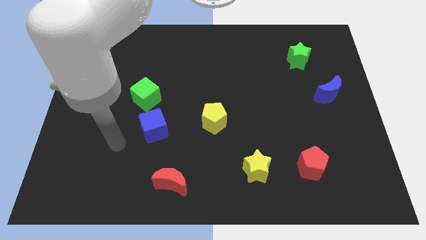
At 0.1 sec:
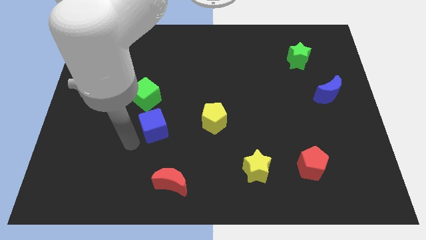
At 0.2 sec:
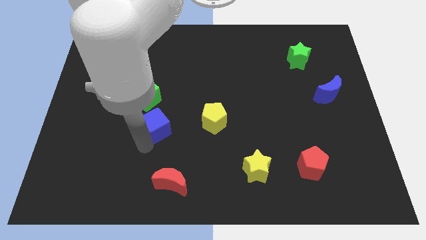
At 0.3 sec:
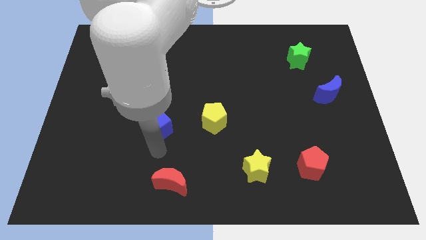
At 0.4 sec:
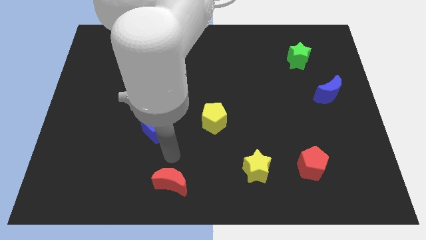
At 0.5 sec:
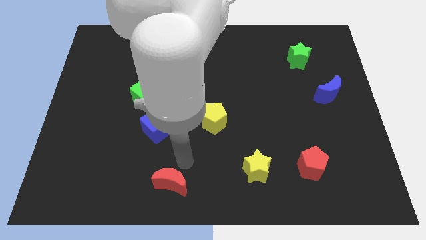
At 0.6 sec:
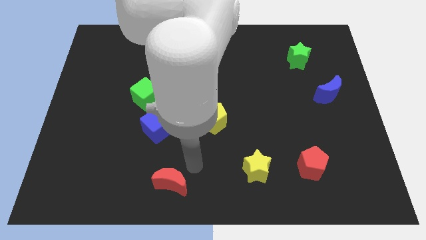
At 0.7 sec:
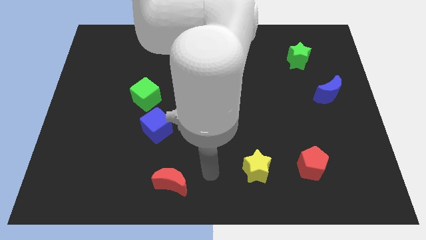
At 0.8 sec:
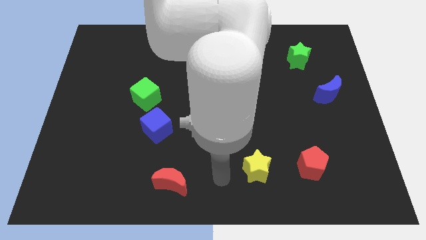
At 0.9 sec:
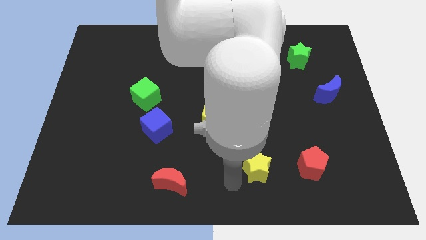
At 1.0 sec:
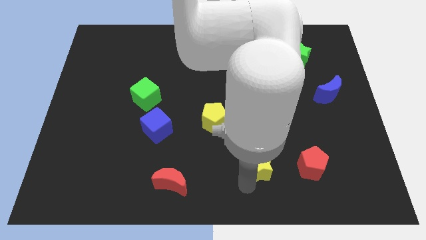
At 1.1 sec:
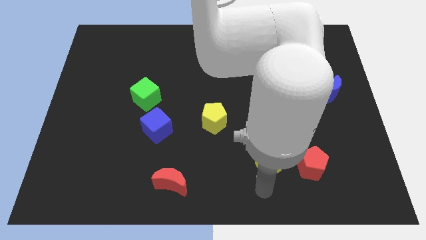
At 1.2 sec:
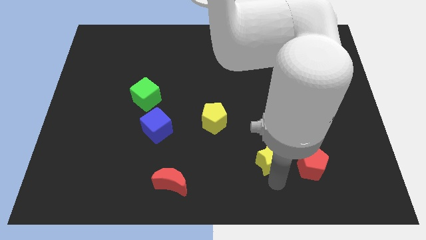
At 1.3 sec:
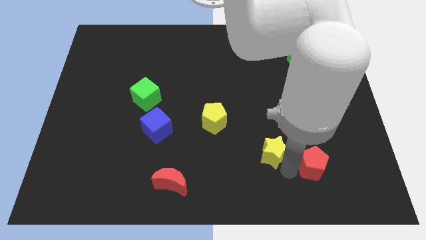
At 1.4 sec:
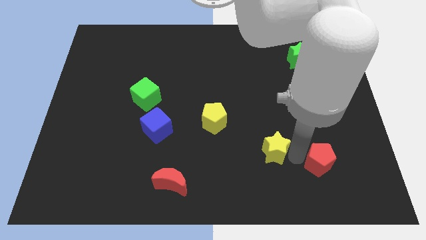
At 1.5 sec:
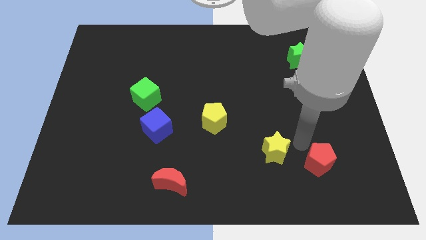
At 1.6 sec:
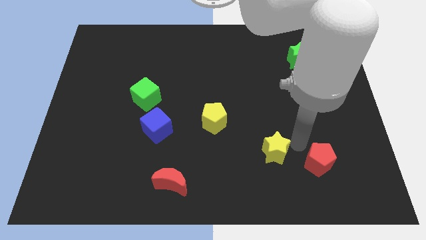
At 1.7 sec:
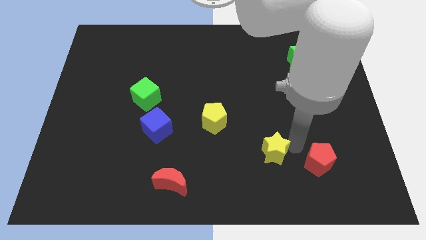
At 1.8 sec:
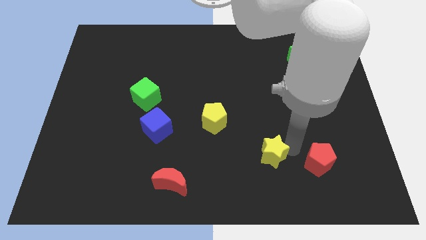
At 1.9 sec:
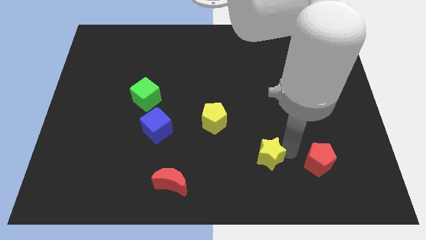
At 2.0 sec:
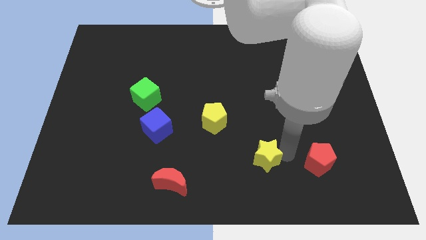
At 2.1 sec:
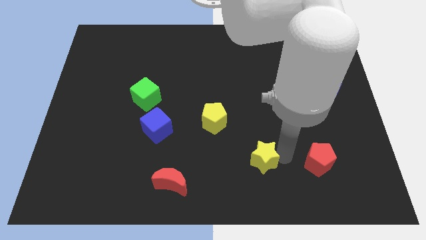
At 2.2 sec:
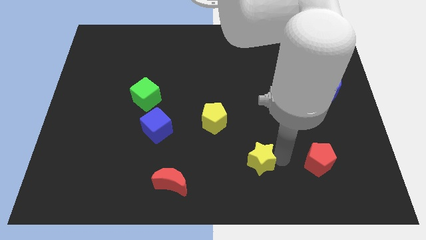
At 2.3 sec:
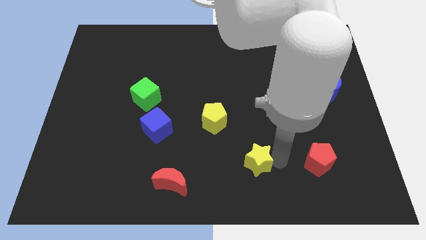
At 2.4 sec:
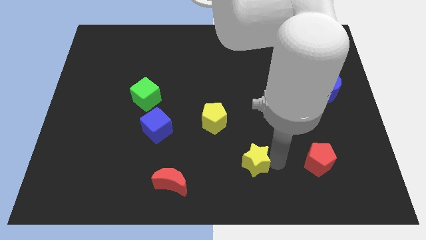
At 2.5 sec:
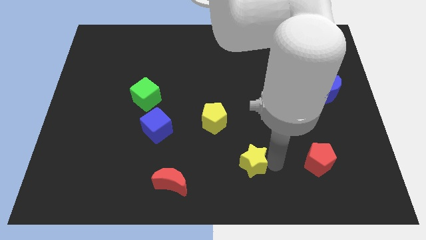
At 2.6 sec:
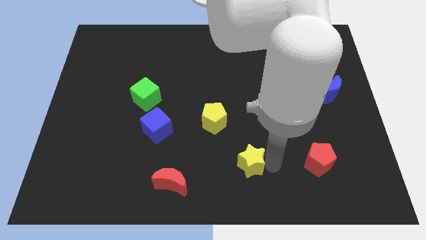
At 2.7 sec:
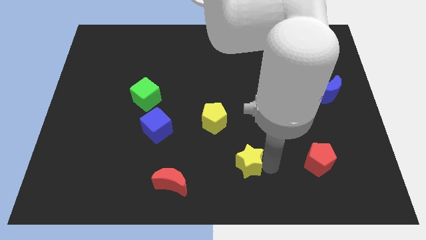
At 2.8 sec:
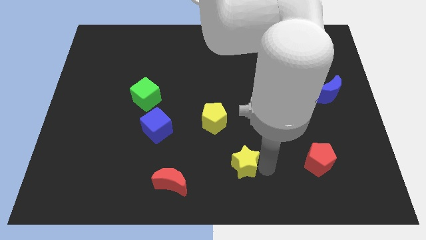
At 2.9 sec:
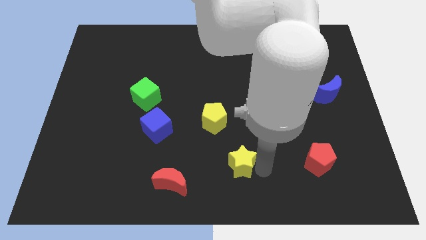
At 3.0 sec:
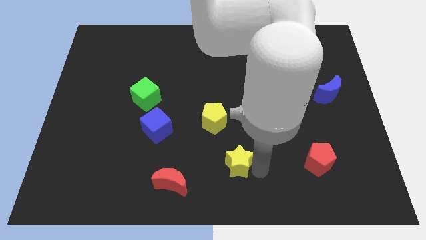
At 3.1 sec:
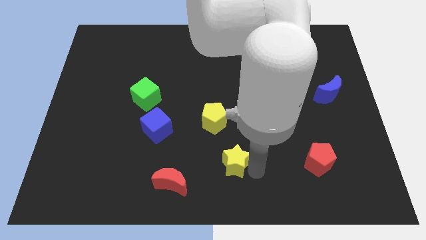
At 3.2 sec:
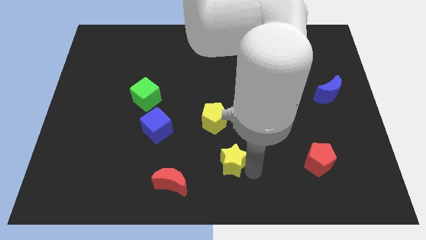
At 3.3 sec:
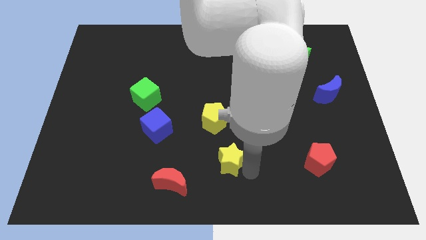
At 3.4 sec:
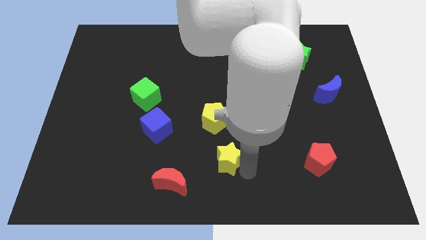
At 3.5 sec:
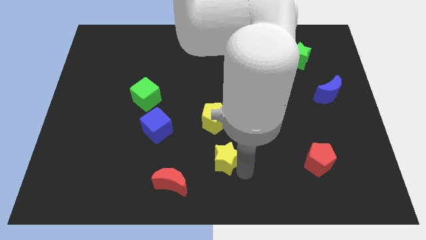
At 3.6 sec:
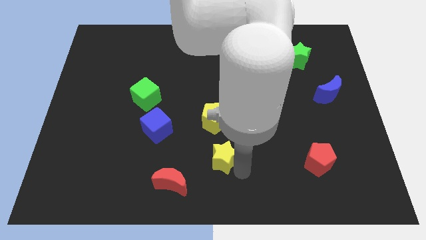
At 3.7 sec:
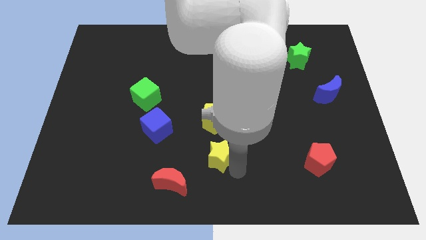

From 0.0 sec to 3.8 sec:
slide the yellow star upwards and to the left somewhat

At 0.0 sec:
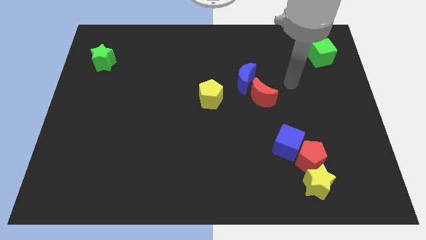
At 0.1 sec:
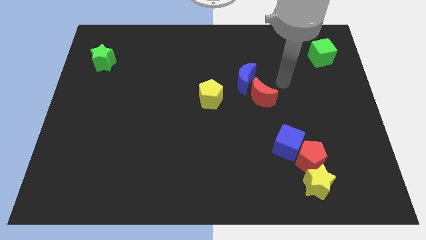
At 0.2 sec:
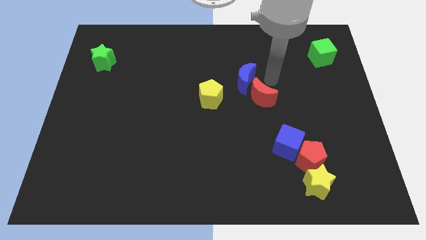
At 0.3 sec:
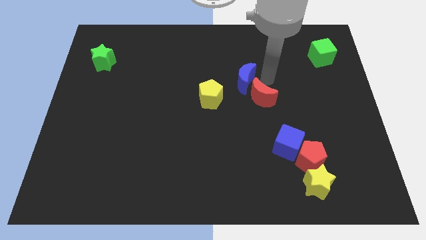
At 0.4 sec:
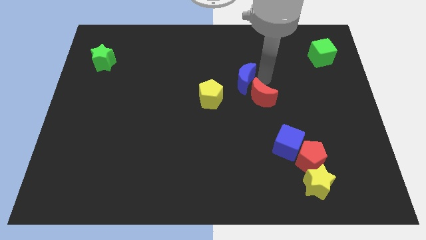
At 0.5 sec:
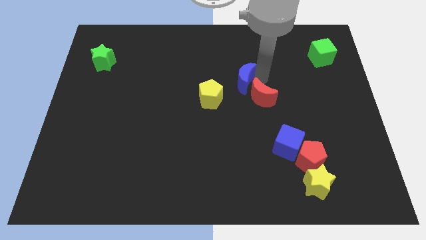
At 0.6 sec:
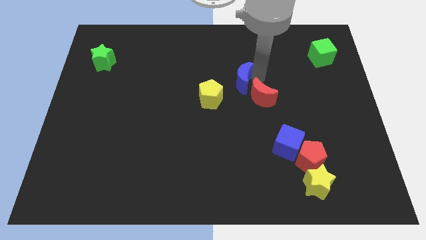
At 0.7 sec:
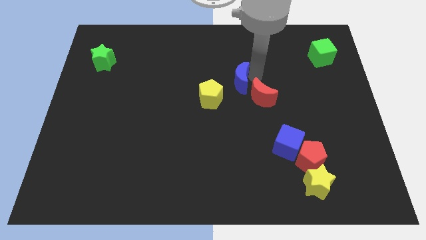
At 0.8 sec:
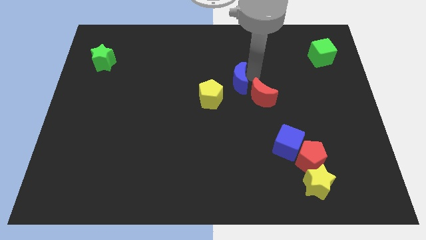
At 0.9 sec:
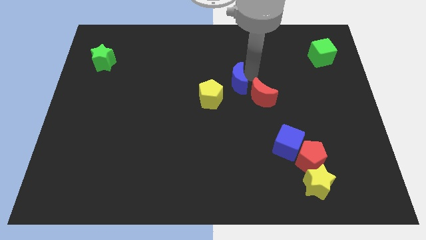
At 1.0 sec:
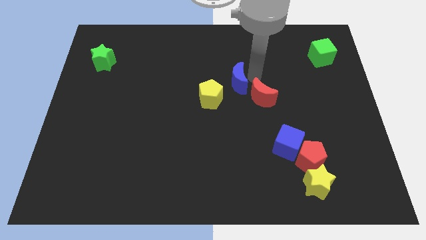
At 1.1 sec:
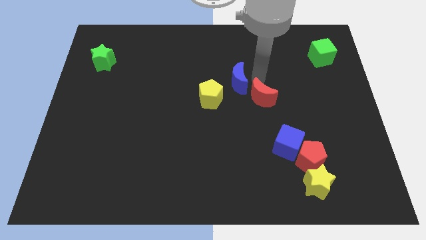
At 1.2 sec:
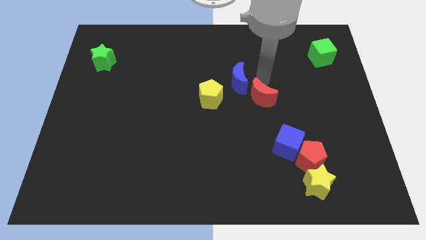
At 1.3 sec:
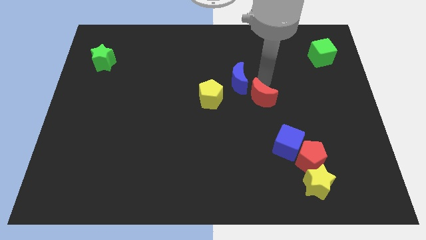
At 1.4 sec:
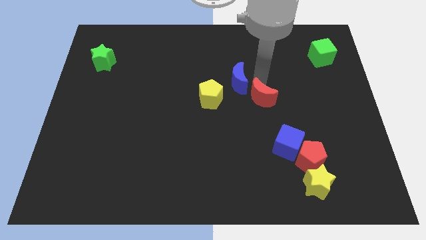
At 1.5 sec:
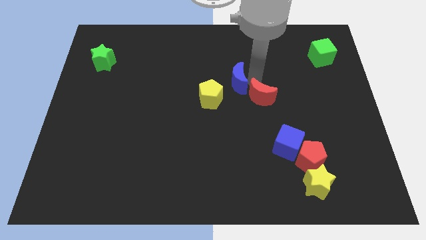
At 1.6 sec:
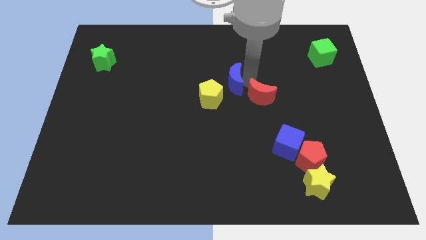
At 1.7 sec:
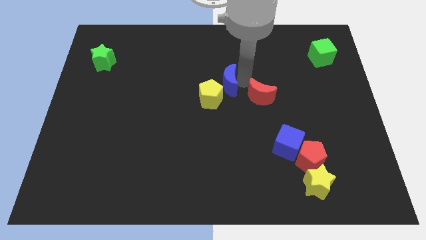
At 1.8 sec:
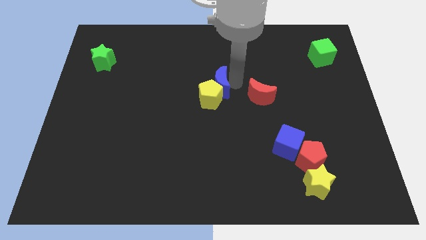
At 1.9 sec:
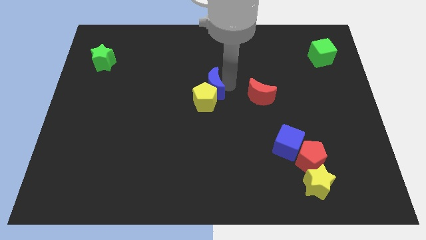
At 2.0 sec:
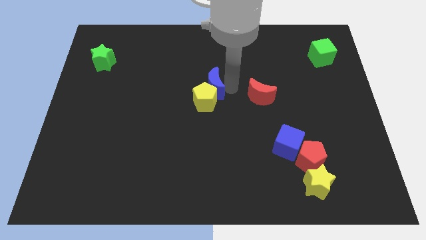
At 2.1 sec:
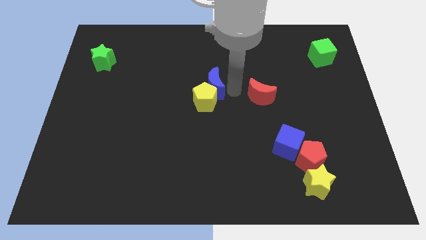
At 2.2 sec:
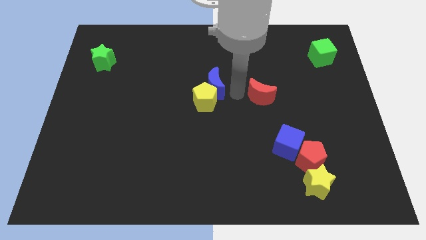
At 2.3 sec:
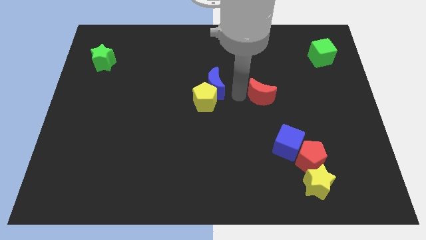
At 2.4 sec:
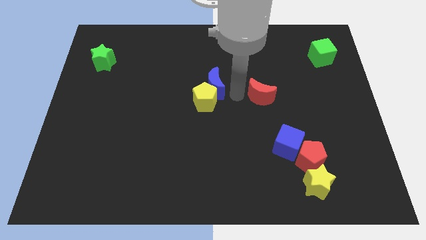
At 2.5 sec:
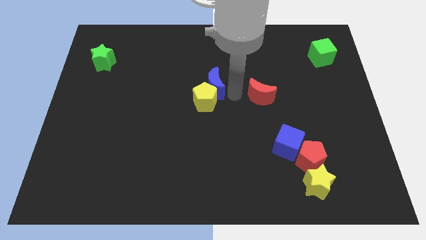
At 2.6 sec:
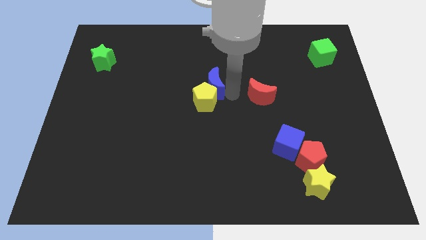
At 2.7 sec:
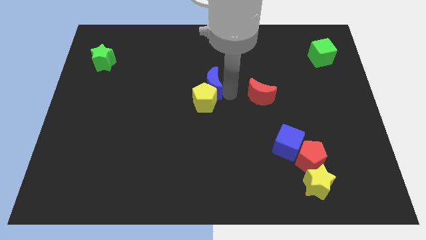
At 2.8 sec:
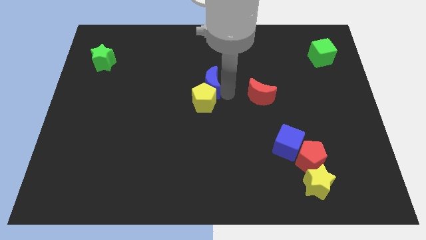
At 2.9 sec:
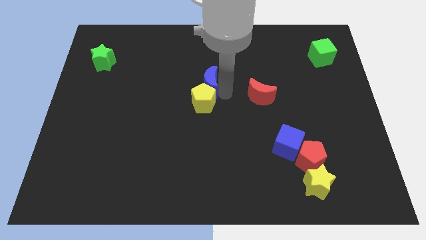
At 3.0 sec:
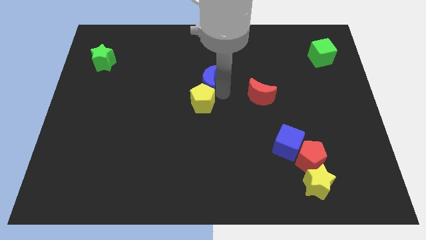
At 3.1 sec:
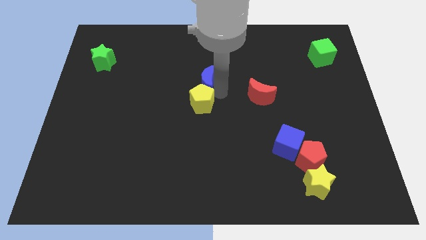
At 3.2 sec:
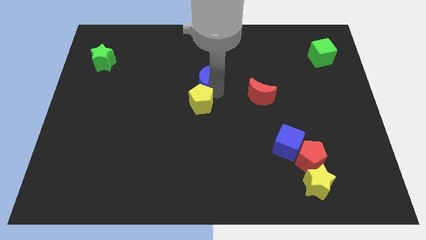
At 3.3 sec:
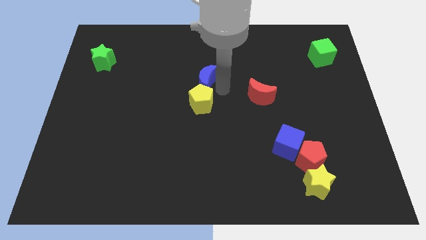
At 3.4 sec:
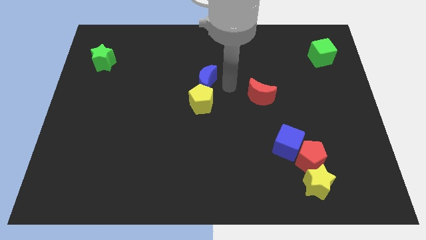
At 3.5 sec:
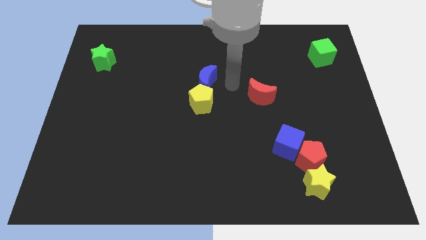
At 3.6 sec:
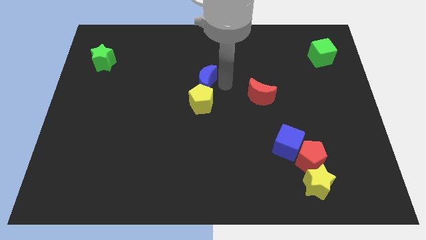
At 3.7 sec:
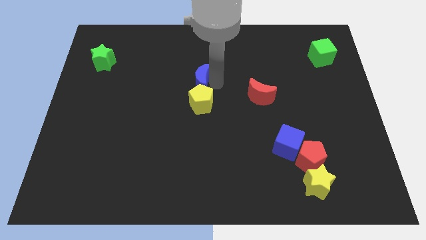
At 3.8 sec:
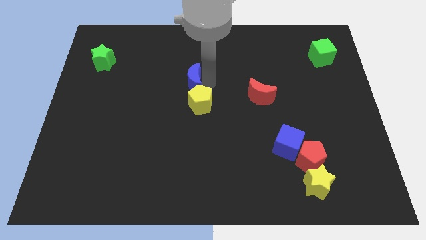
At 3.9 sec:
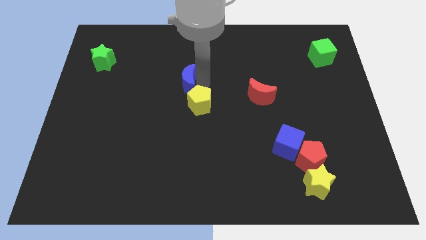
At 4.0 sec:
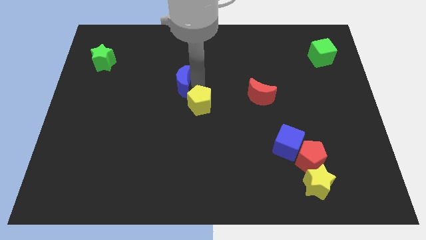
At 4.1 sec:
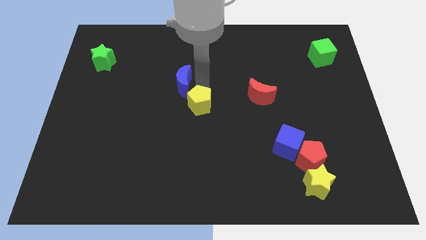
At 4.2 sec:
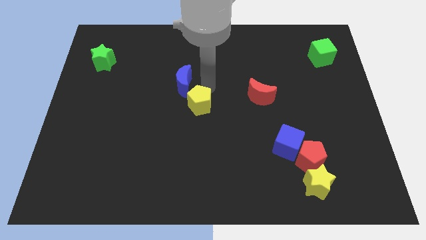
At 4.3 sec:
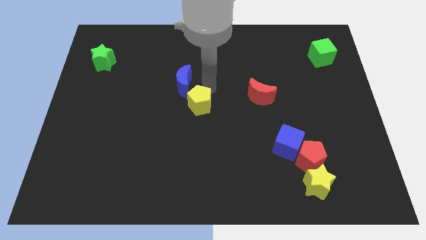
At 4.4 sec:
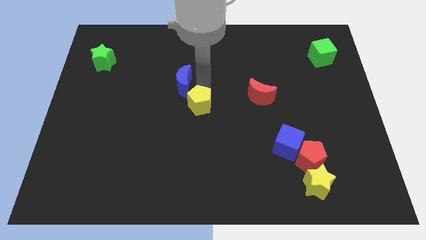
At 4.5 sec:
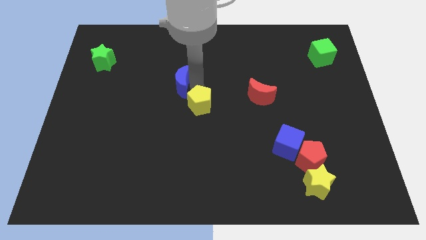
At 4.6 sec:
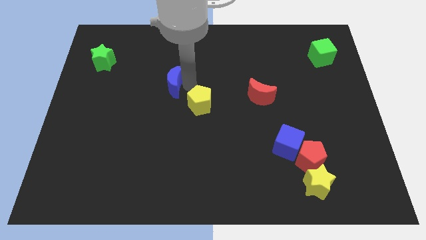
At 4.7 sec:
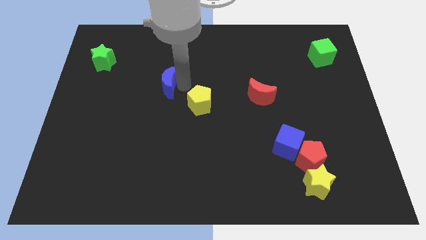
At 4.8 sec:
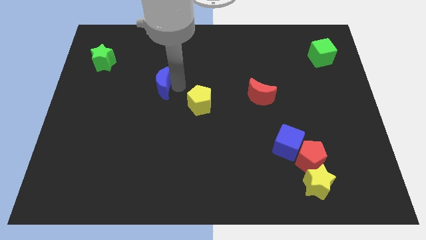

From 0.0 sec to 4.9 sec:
push the blue moon left
